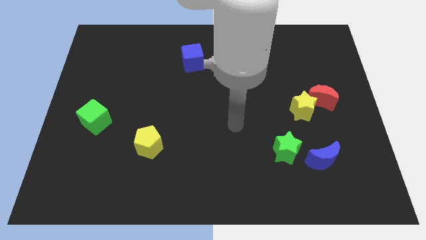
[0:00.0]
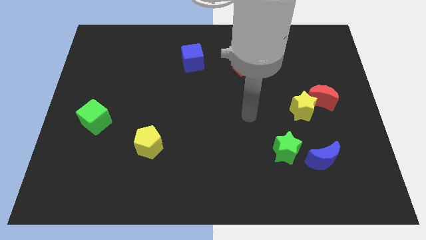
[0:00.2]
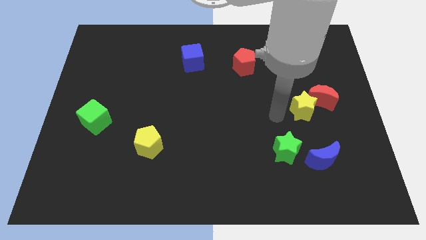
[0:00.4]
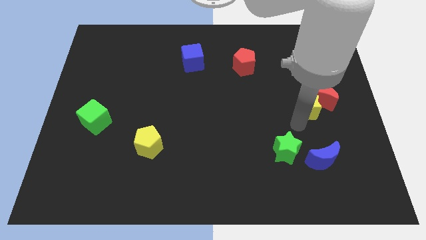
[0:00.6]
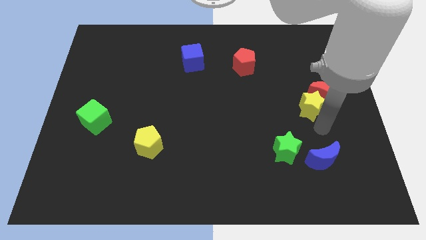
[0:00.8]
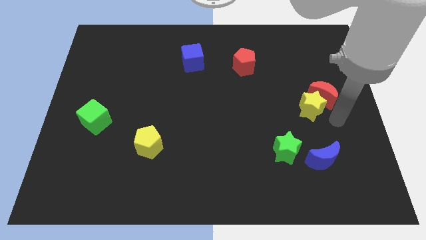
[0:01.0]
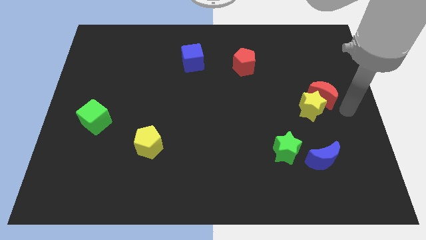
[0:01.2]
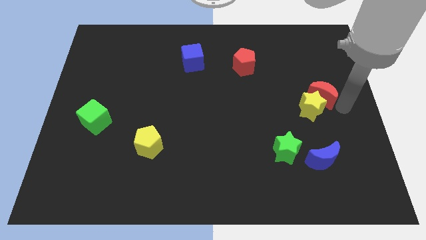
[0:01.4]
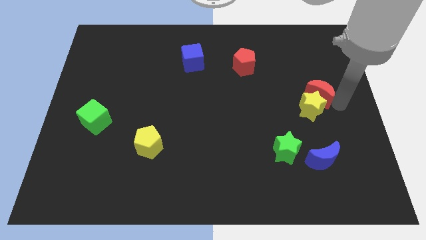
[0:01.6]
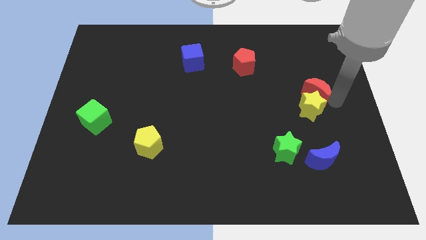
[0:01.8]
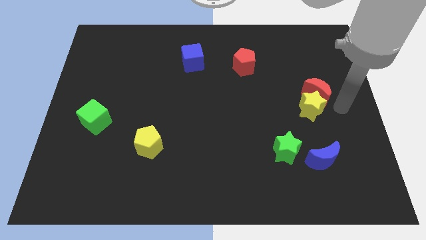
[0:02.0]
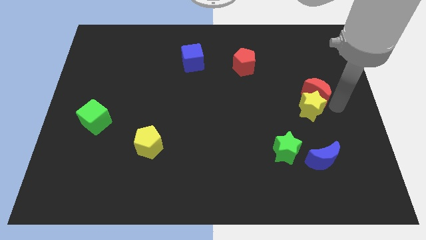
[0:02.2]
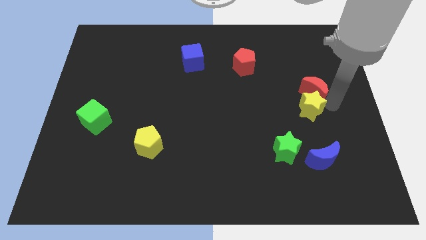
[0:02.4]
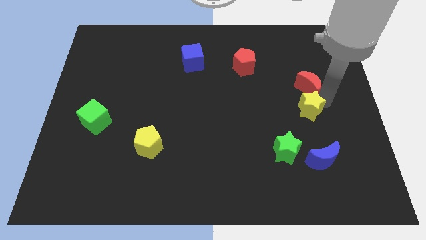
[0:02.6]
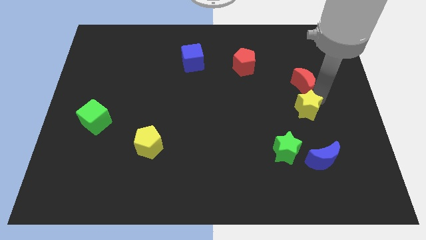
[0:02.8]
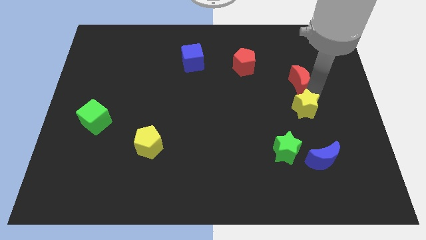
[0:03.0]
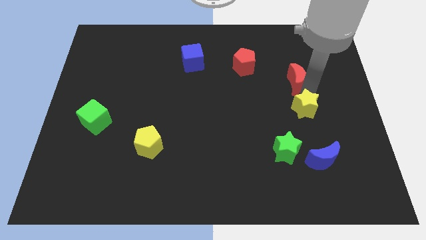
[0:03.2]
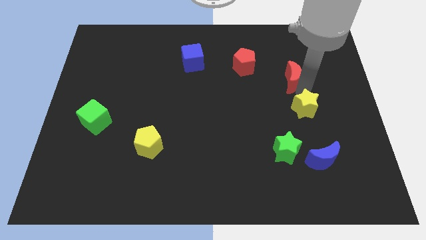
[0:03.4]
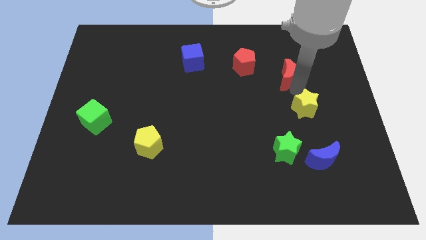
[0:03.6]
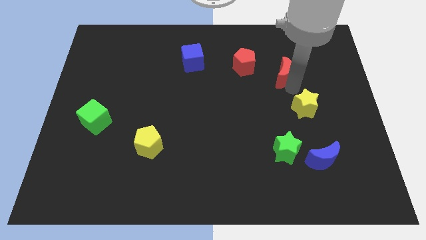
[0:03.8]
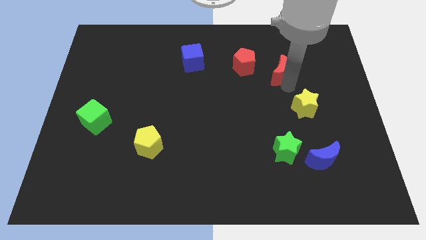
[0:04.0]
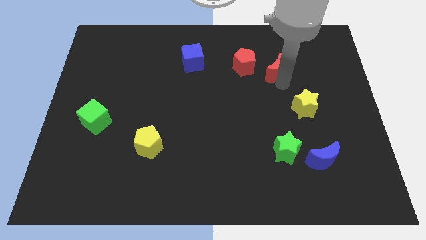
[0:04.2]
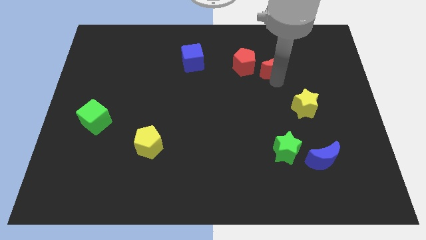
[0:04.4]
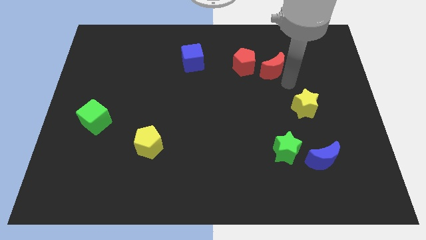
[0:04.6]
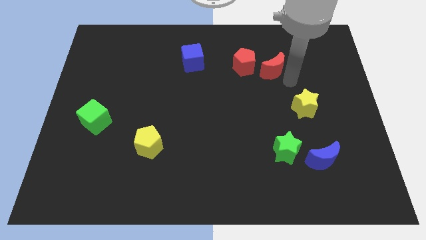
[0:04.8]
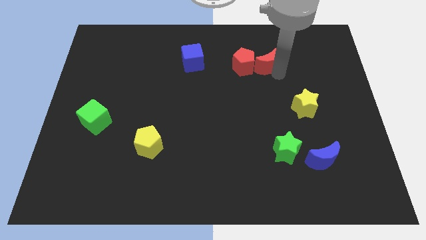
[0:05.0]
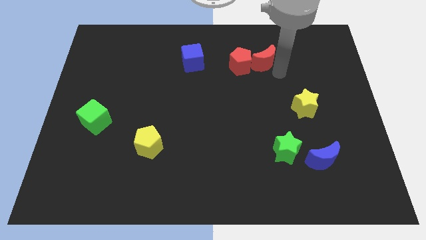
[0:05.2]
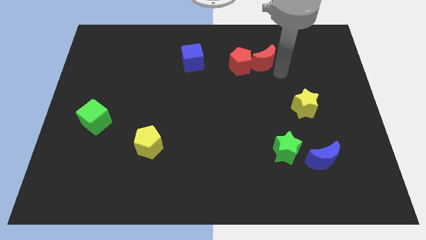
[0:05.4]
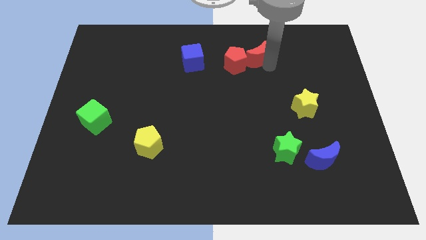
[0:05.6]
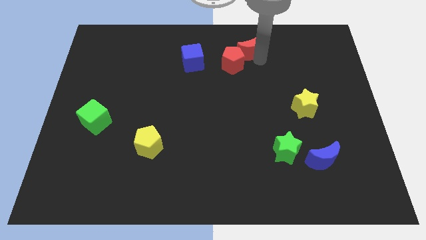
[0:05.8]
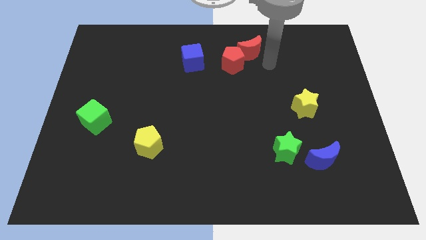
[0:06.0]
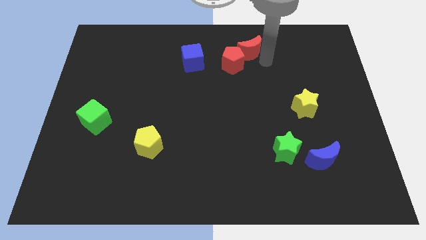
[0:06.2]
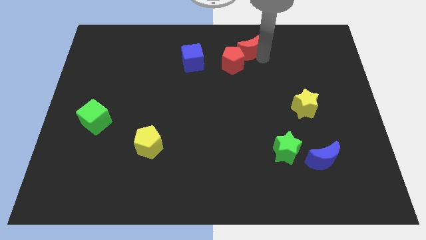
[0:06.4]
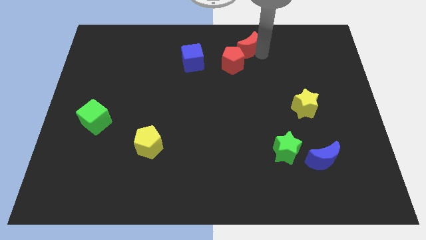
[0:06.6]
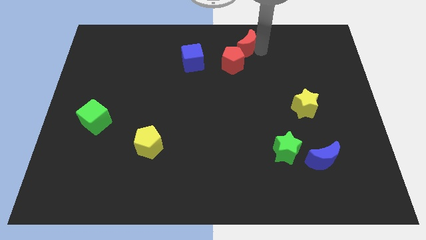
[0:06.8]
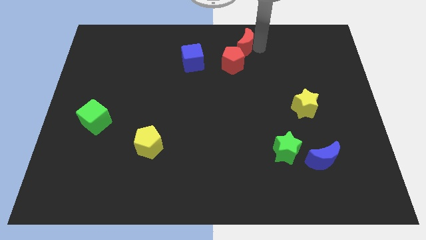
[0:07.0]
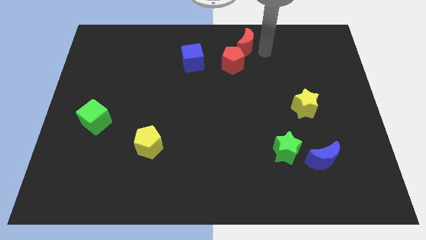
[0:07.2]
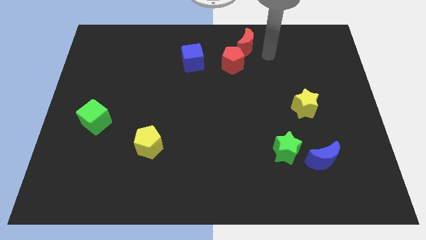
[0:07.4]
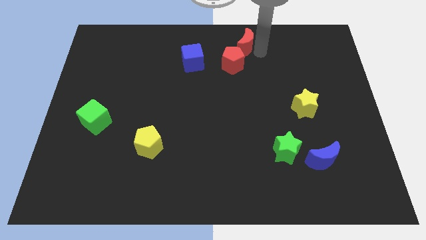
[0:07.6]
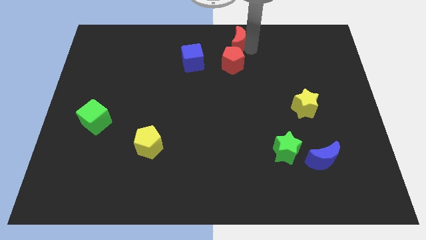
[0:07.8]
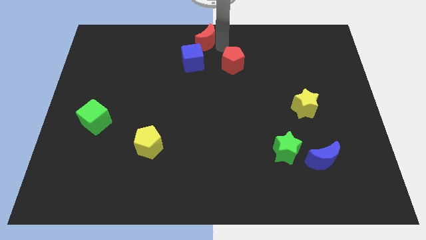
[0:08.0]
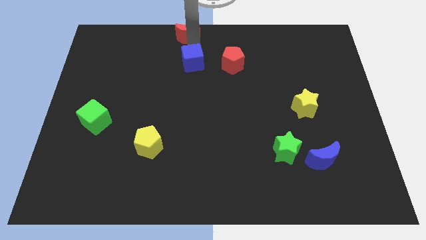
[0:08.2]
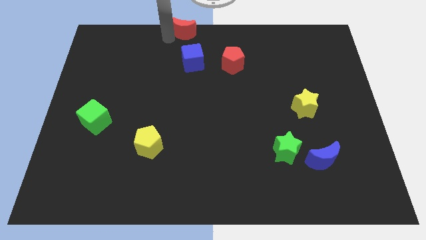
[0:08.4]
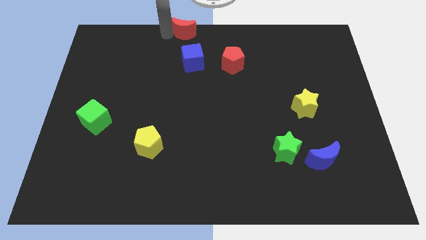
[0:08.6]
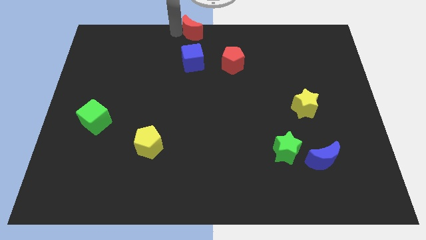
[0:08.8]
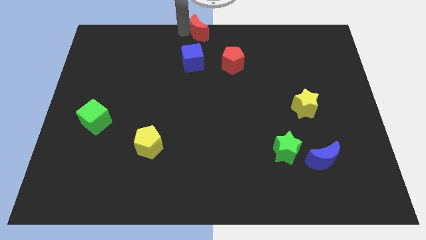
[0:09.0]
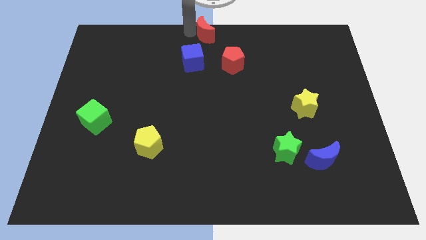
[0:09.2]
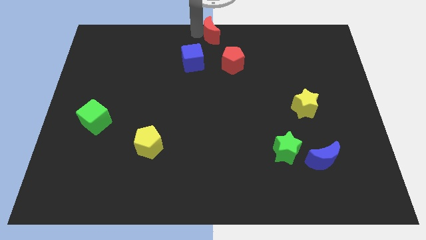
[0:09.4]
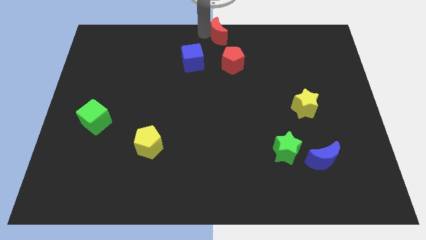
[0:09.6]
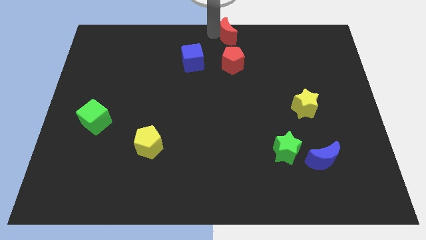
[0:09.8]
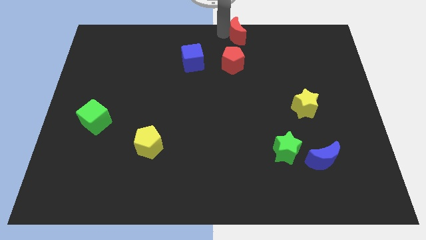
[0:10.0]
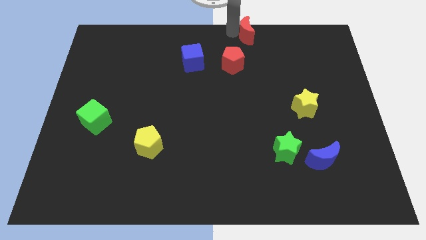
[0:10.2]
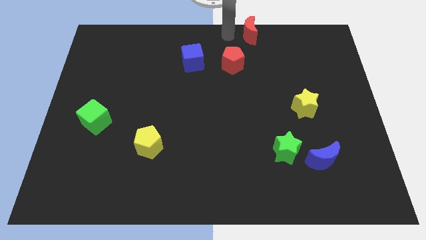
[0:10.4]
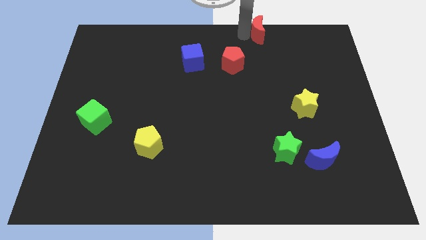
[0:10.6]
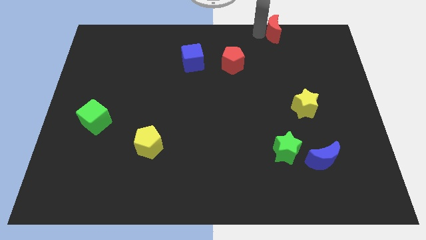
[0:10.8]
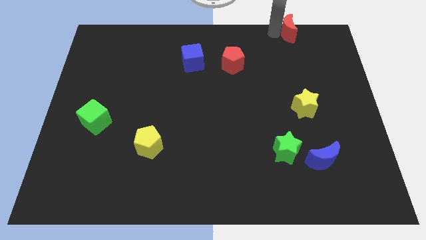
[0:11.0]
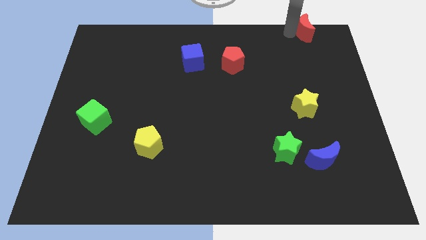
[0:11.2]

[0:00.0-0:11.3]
push the red moon to the top right

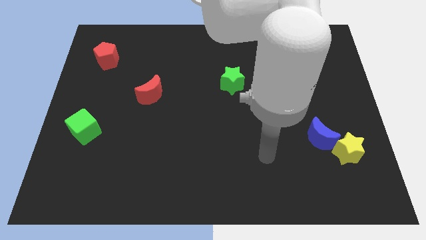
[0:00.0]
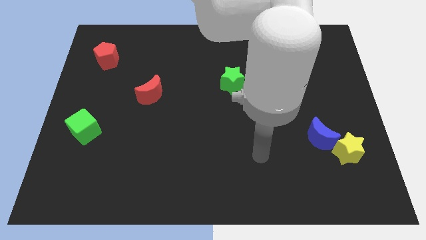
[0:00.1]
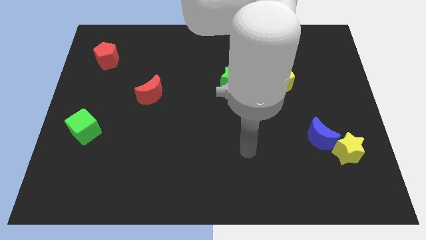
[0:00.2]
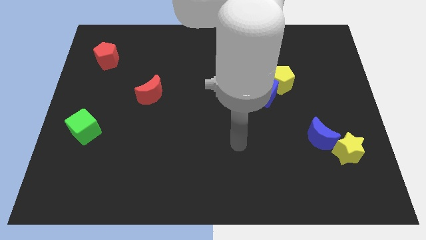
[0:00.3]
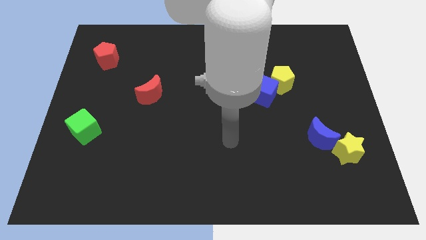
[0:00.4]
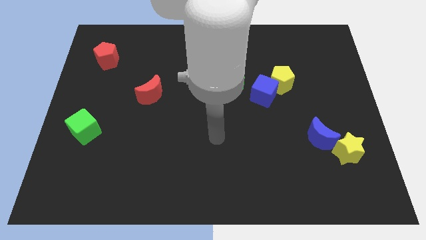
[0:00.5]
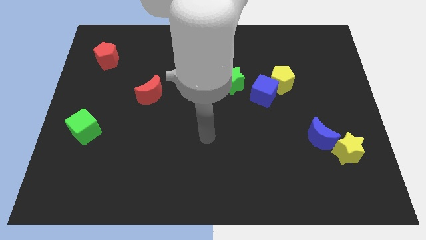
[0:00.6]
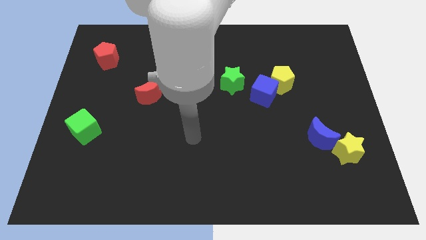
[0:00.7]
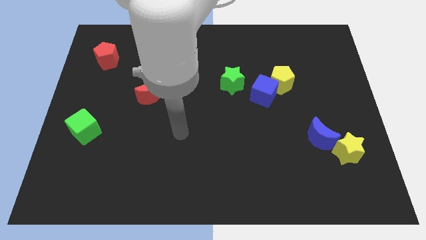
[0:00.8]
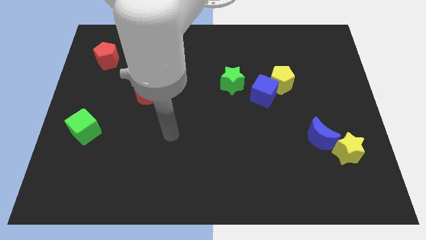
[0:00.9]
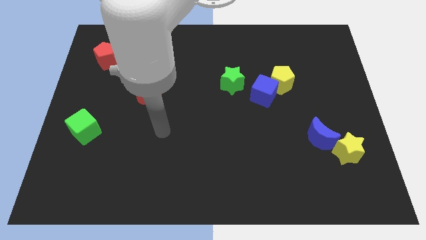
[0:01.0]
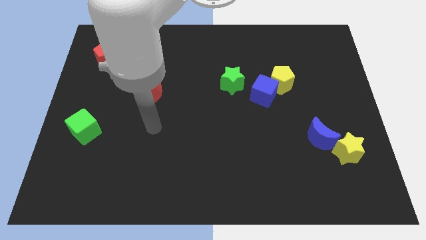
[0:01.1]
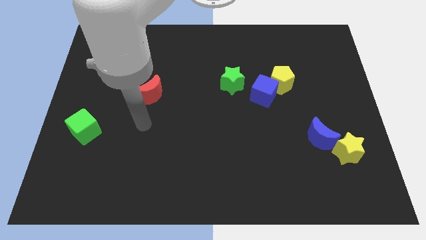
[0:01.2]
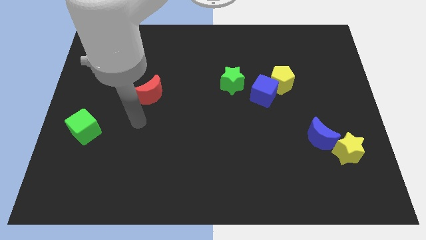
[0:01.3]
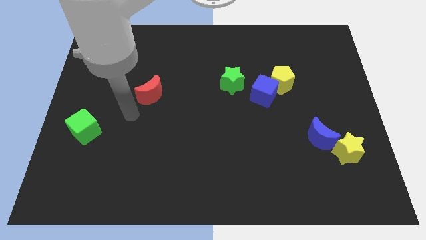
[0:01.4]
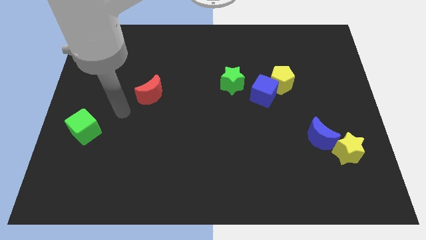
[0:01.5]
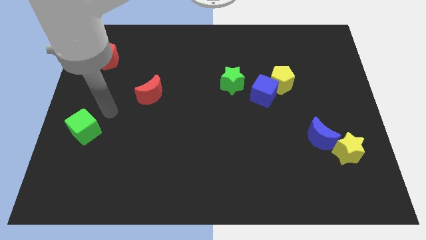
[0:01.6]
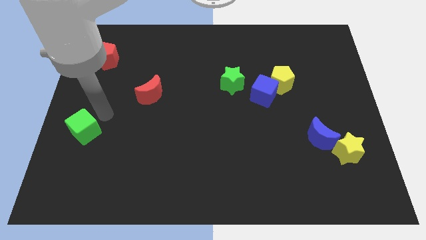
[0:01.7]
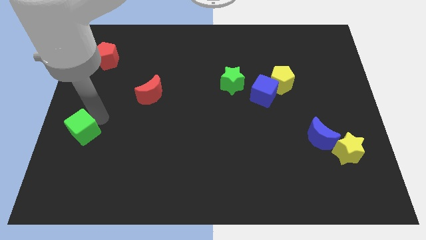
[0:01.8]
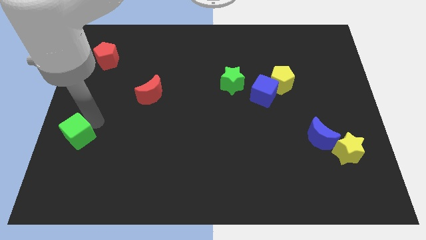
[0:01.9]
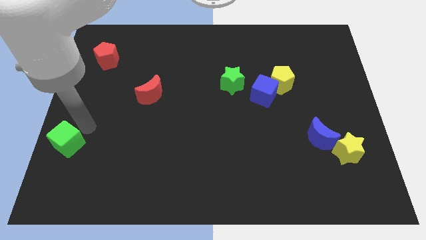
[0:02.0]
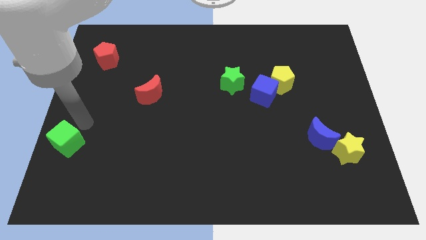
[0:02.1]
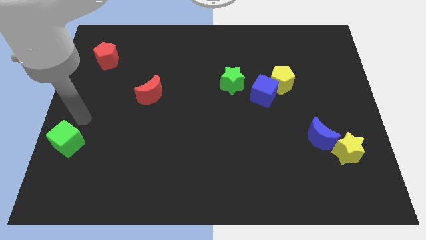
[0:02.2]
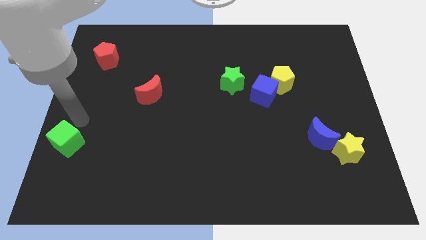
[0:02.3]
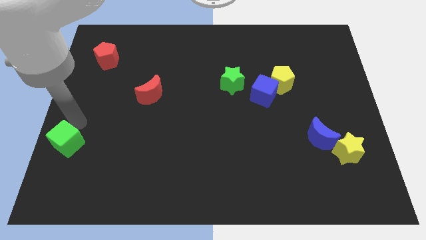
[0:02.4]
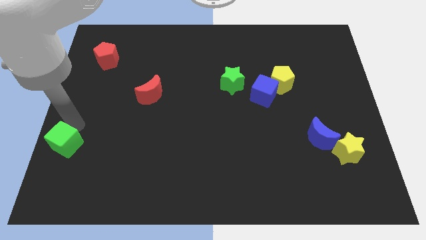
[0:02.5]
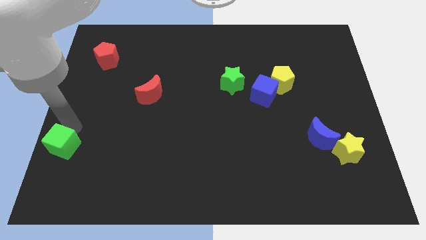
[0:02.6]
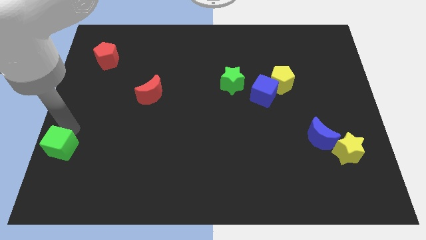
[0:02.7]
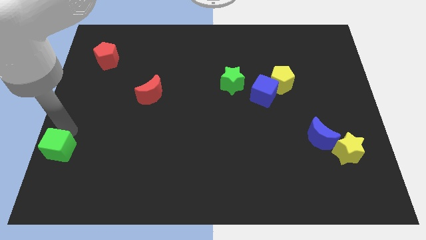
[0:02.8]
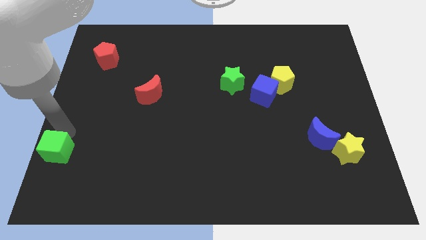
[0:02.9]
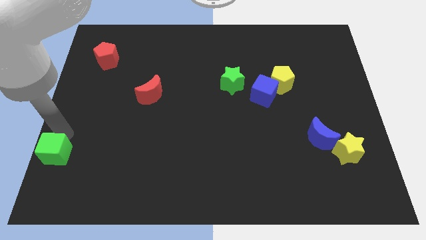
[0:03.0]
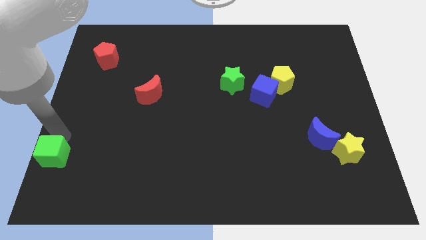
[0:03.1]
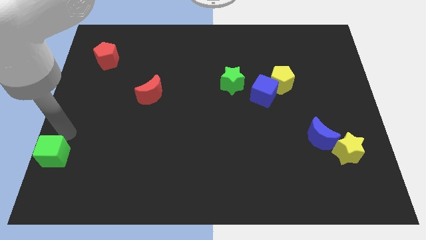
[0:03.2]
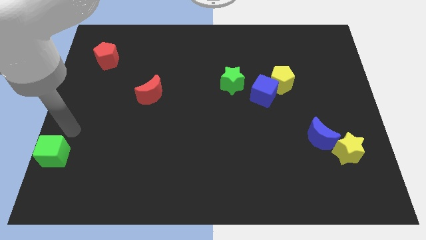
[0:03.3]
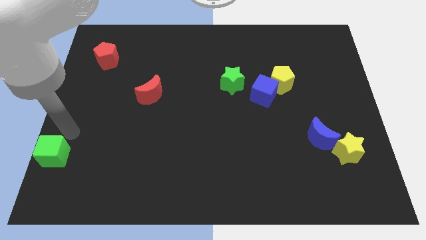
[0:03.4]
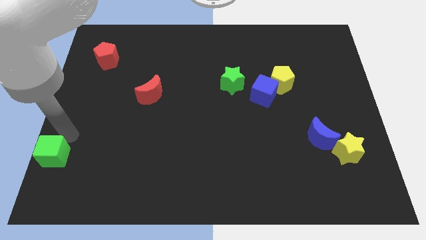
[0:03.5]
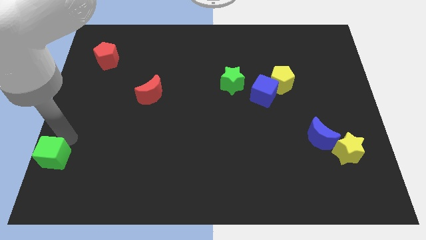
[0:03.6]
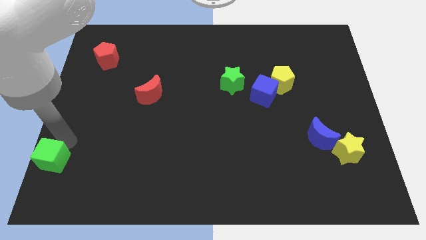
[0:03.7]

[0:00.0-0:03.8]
push the green cube to the bottom left
